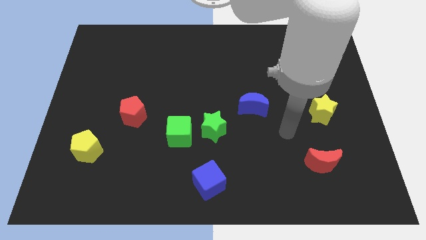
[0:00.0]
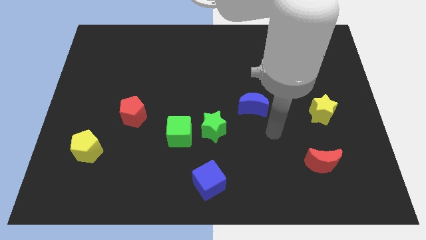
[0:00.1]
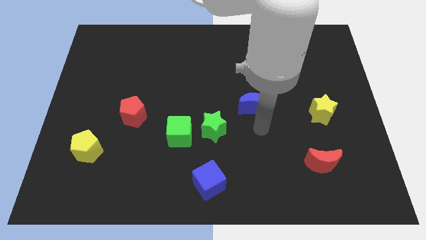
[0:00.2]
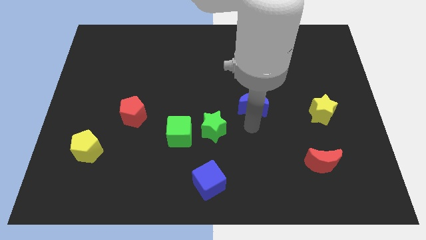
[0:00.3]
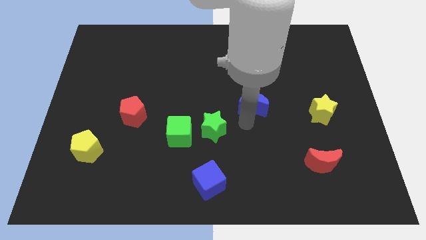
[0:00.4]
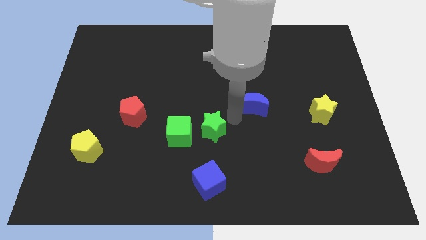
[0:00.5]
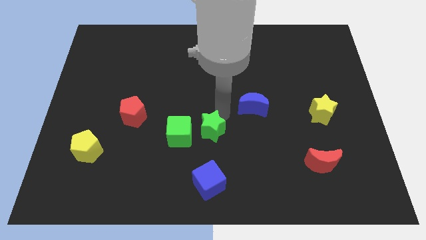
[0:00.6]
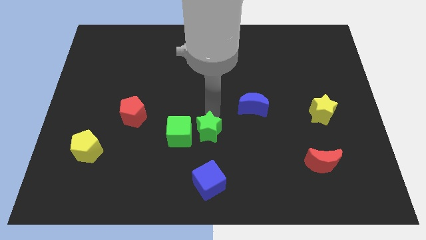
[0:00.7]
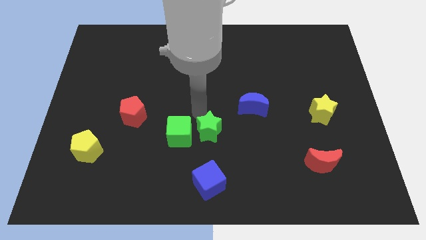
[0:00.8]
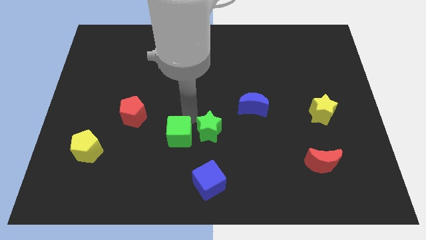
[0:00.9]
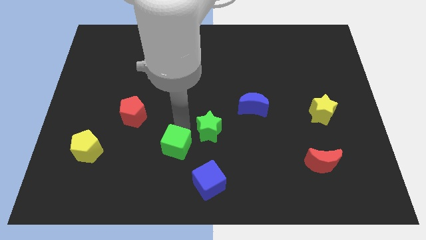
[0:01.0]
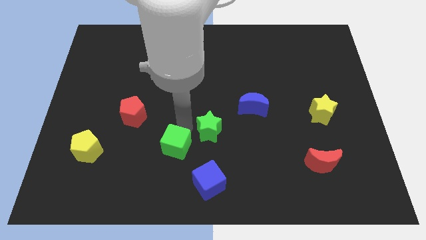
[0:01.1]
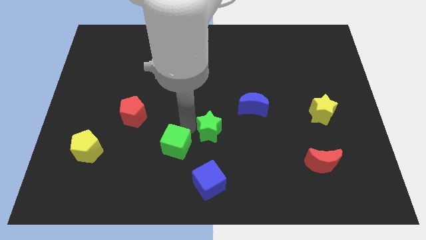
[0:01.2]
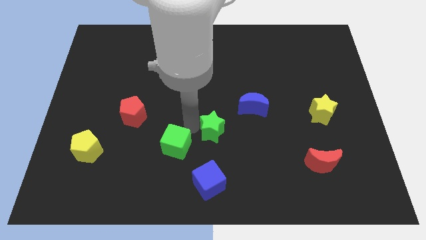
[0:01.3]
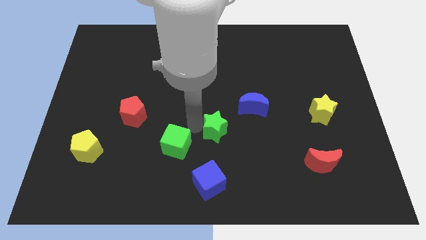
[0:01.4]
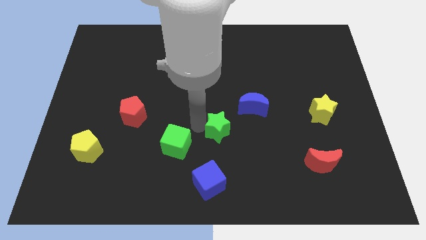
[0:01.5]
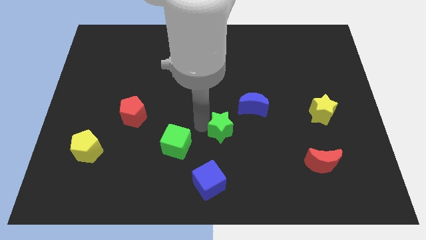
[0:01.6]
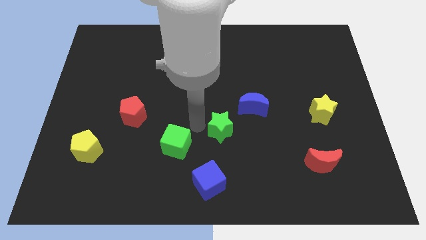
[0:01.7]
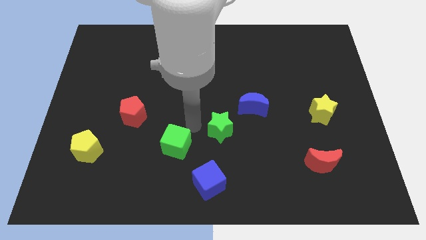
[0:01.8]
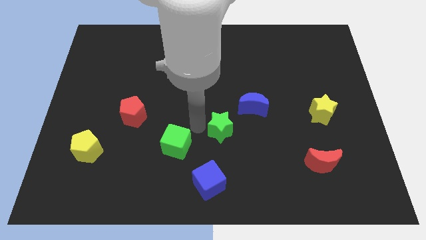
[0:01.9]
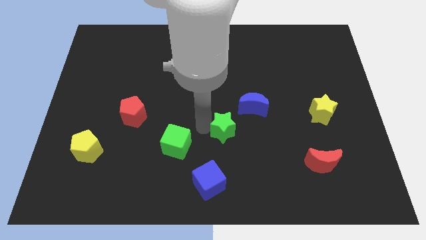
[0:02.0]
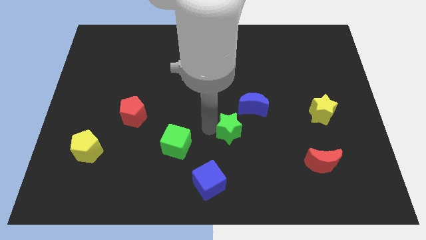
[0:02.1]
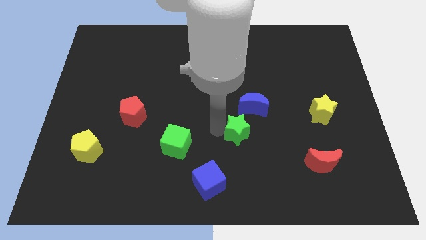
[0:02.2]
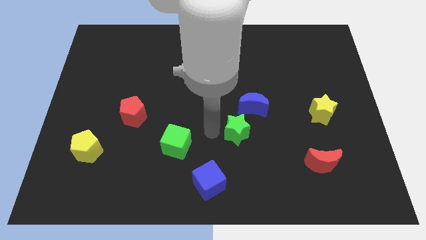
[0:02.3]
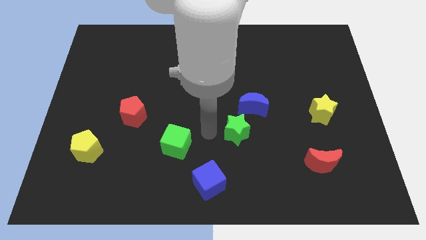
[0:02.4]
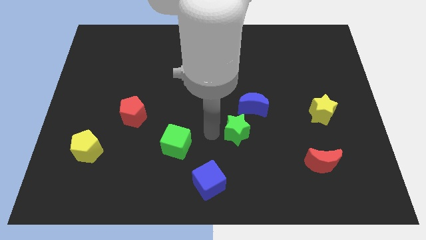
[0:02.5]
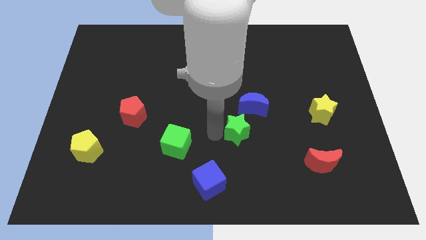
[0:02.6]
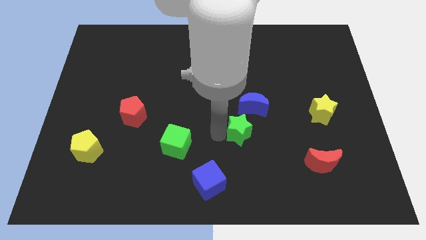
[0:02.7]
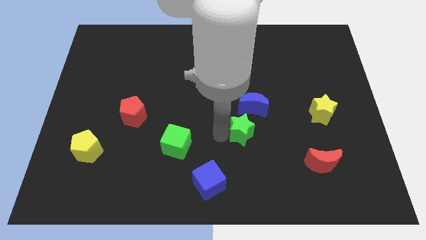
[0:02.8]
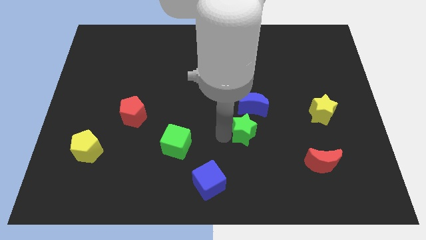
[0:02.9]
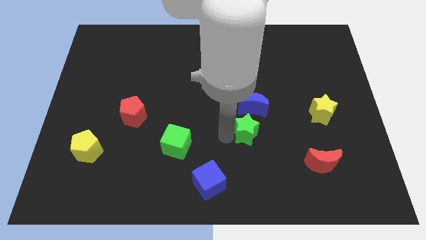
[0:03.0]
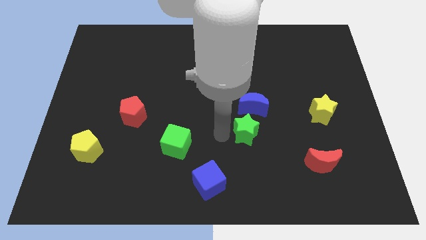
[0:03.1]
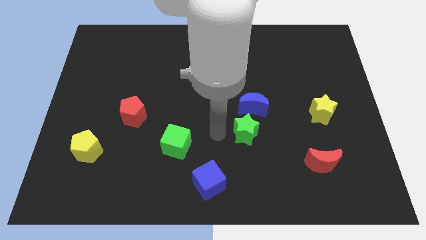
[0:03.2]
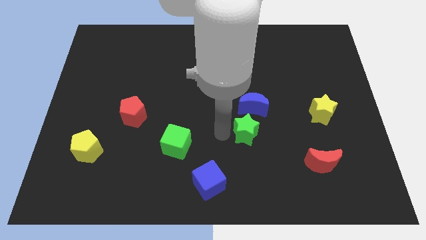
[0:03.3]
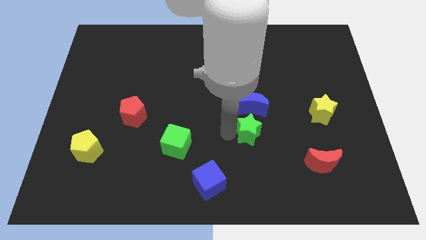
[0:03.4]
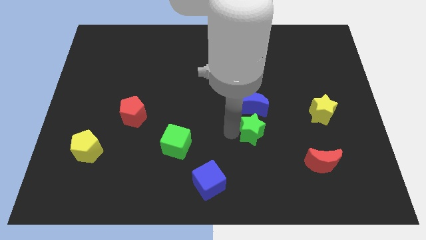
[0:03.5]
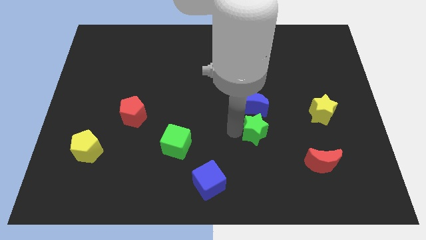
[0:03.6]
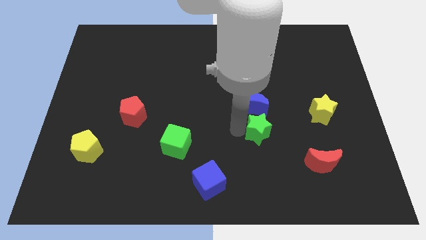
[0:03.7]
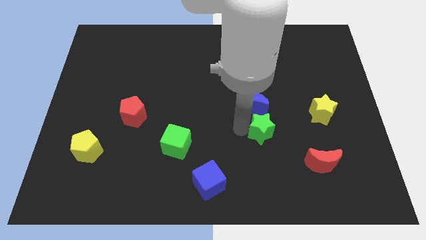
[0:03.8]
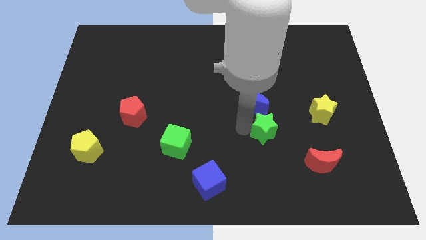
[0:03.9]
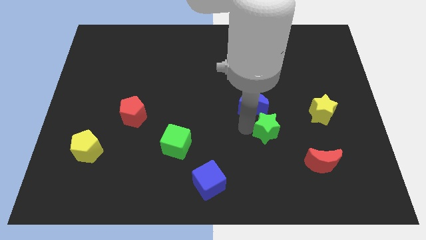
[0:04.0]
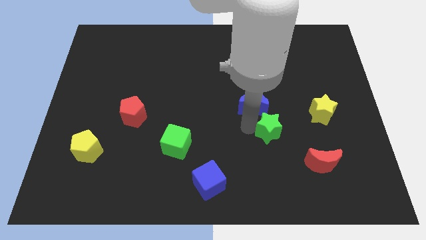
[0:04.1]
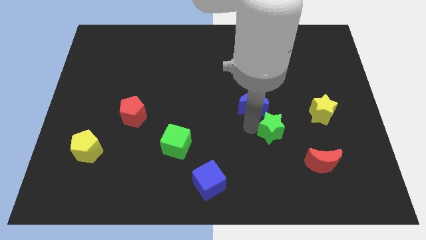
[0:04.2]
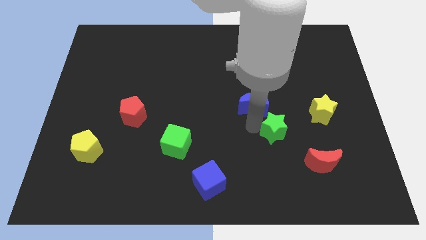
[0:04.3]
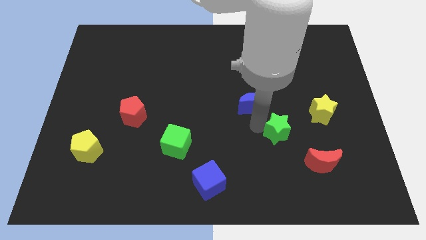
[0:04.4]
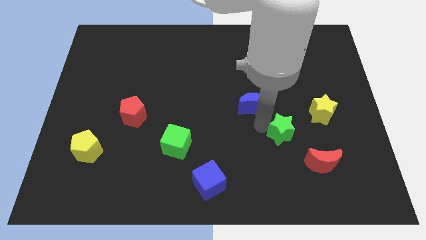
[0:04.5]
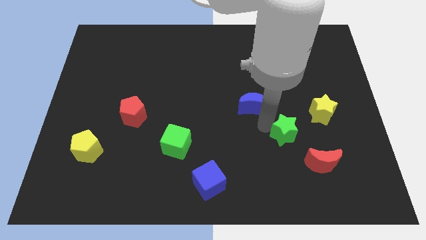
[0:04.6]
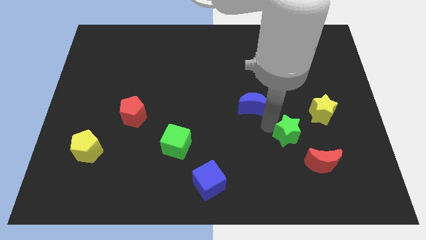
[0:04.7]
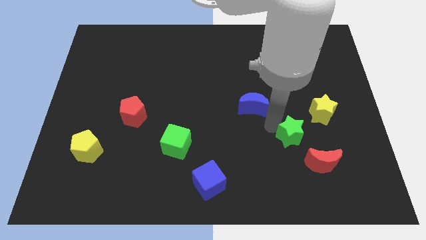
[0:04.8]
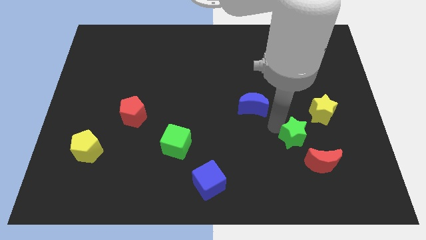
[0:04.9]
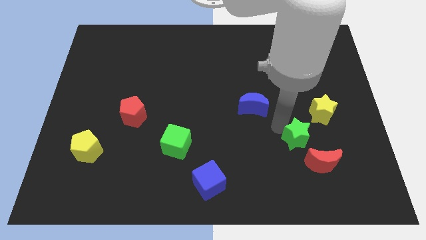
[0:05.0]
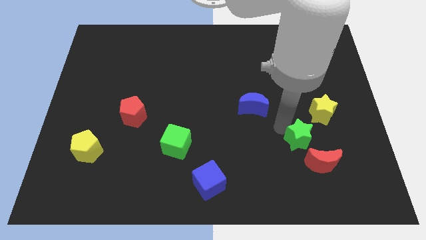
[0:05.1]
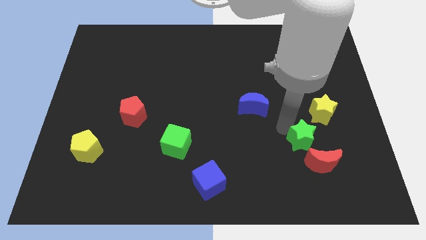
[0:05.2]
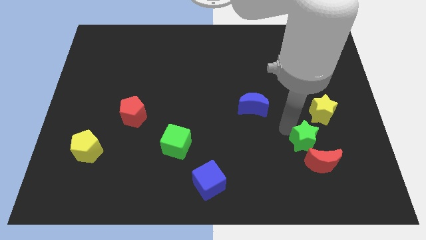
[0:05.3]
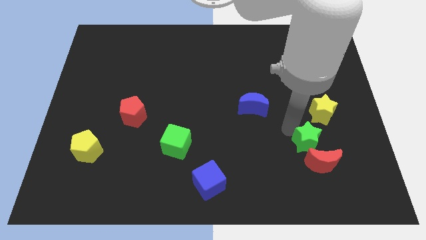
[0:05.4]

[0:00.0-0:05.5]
slide the green star to the red moon

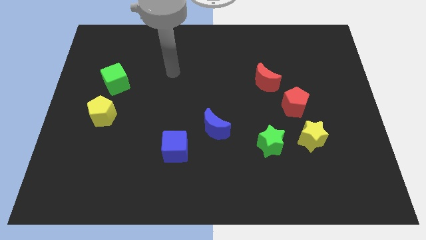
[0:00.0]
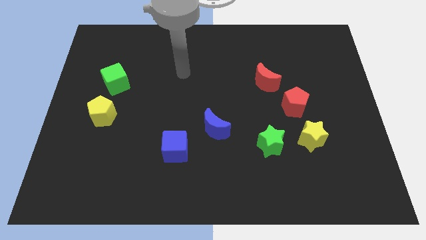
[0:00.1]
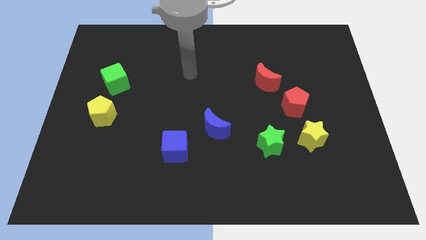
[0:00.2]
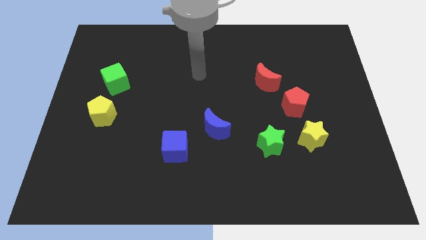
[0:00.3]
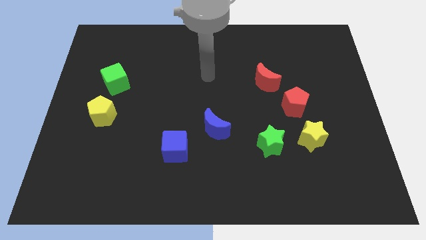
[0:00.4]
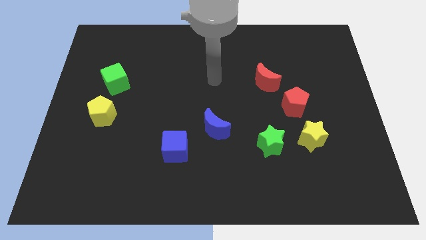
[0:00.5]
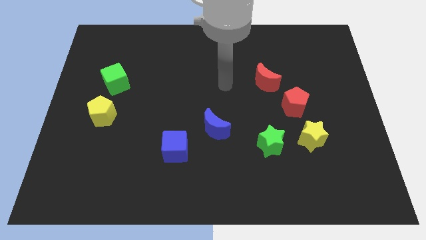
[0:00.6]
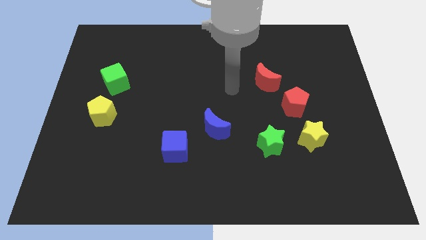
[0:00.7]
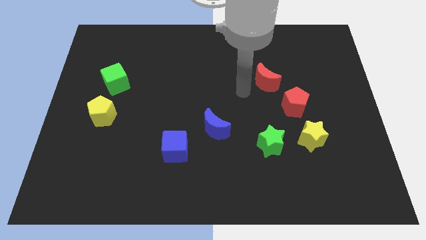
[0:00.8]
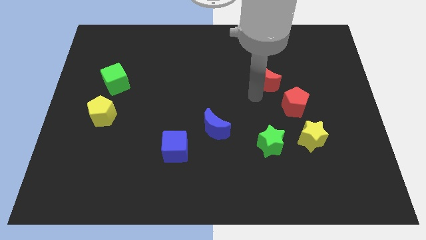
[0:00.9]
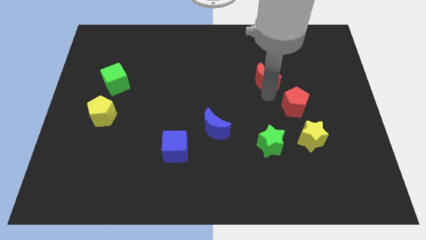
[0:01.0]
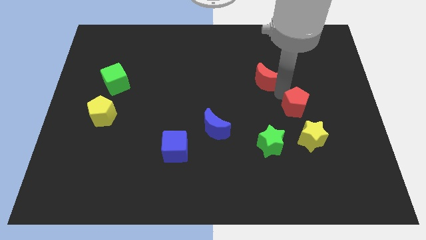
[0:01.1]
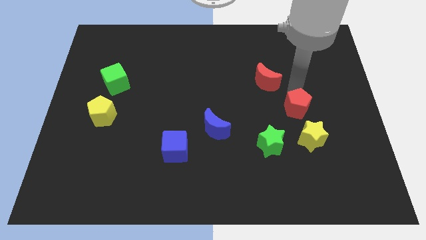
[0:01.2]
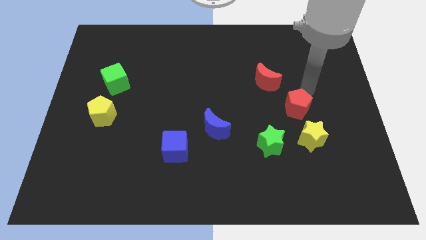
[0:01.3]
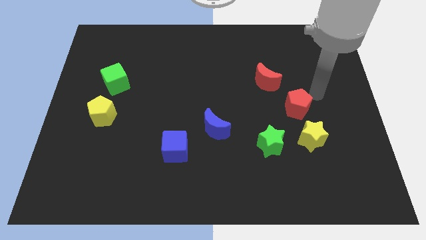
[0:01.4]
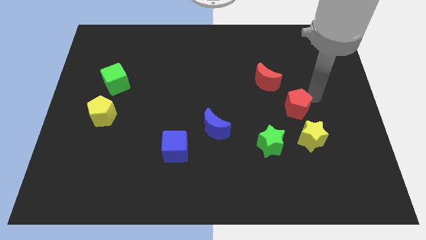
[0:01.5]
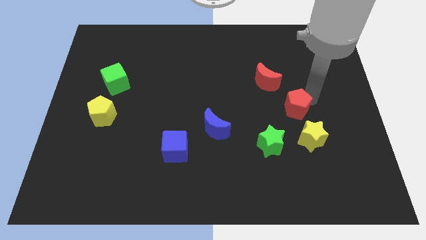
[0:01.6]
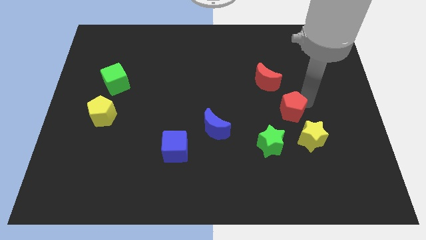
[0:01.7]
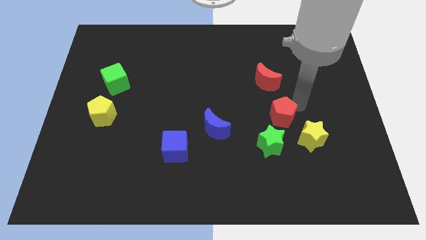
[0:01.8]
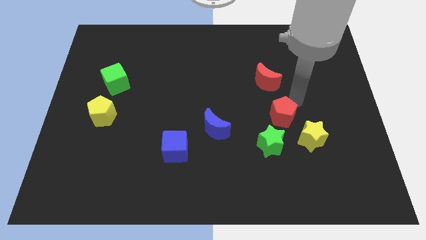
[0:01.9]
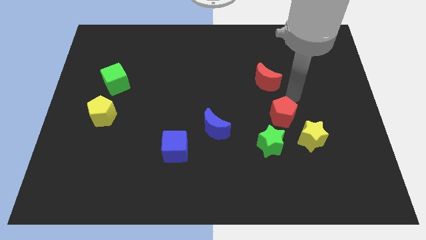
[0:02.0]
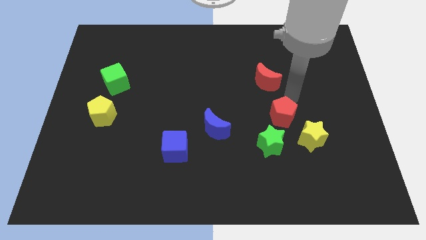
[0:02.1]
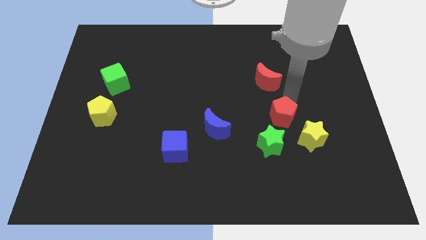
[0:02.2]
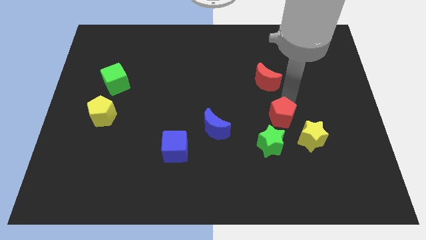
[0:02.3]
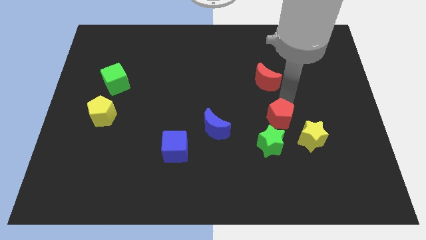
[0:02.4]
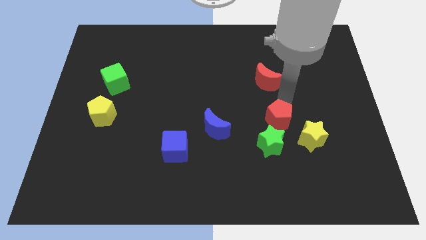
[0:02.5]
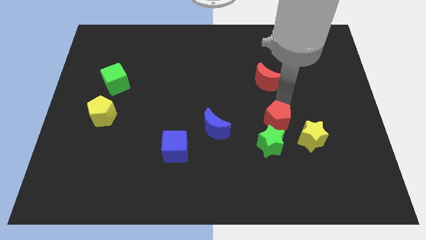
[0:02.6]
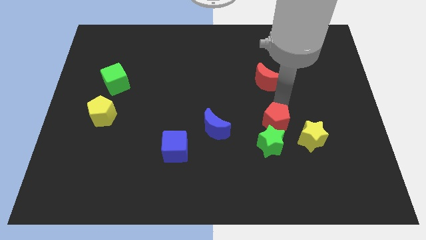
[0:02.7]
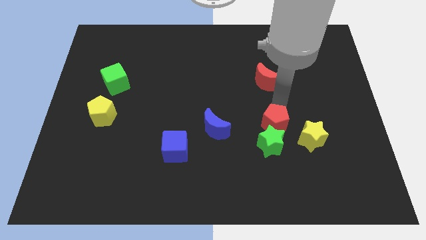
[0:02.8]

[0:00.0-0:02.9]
slide the red pentagon close to the green star
